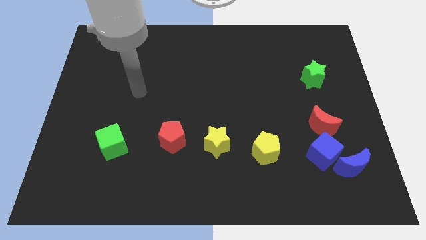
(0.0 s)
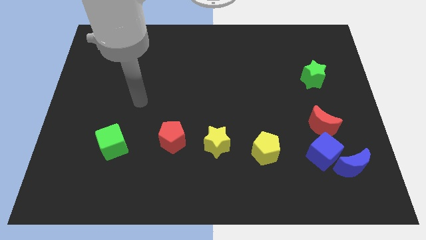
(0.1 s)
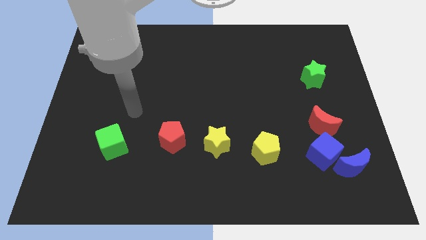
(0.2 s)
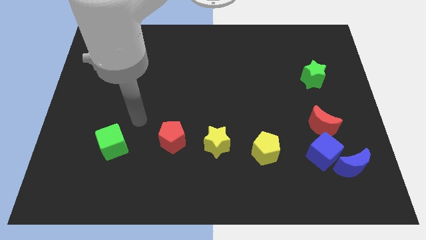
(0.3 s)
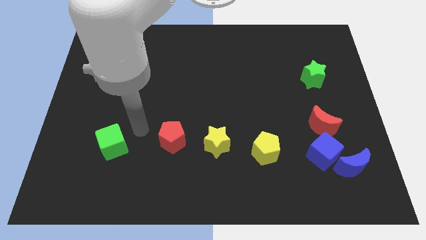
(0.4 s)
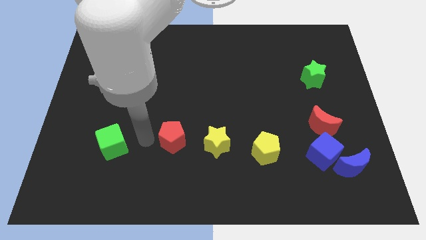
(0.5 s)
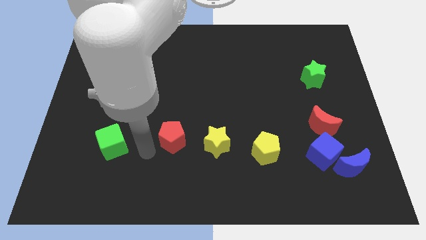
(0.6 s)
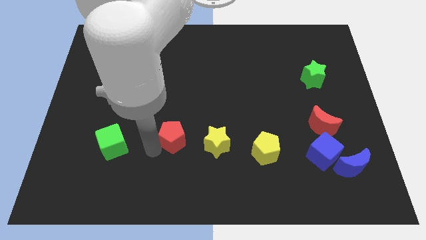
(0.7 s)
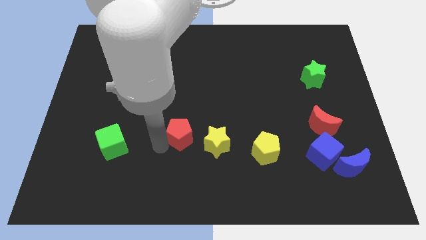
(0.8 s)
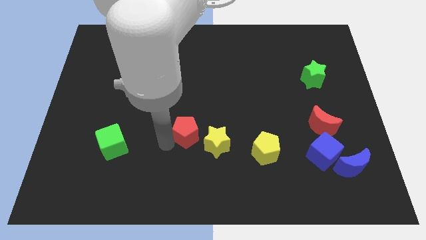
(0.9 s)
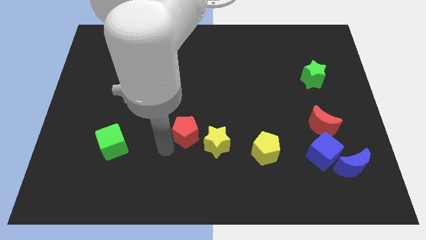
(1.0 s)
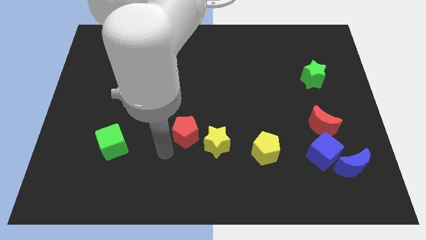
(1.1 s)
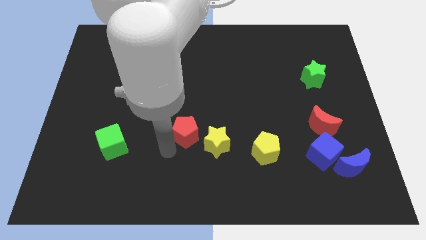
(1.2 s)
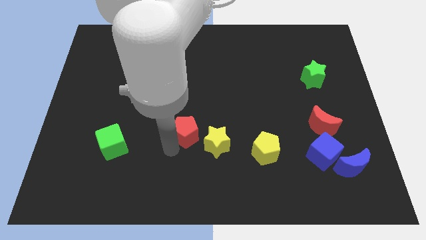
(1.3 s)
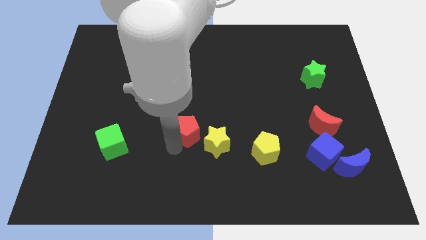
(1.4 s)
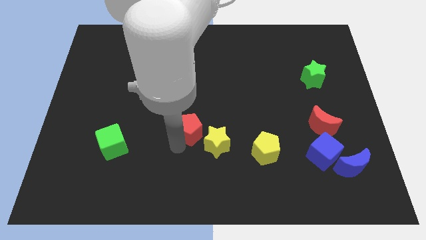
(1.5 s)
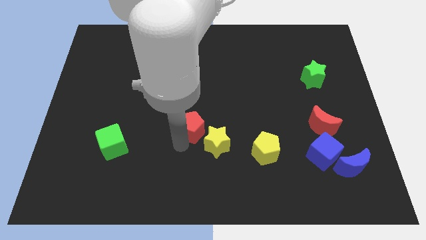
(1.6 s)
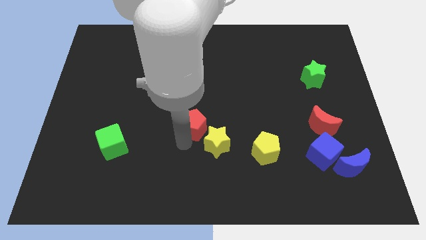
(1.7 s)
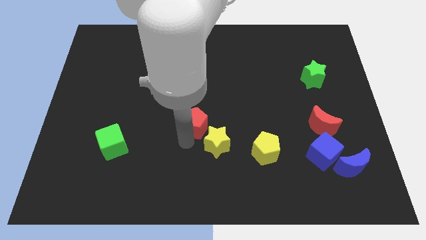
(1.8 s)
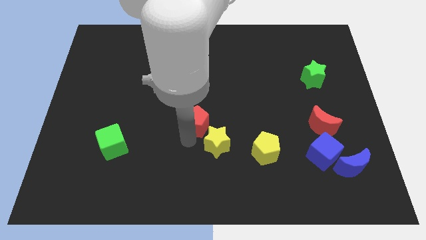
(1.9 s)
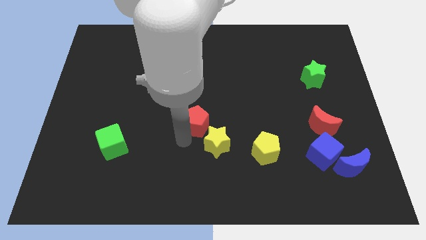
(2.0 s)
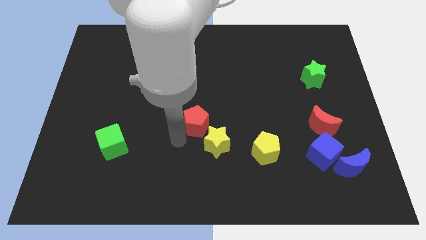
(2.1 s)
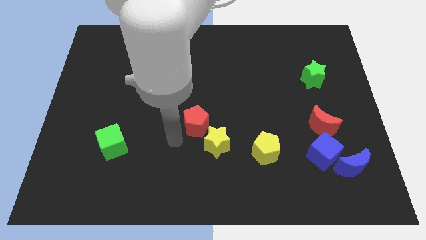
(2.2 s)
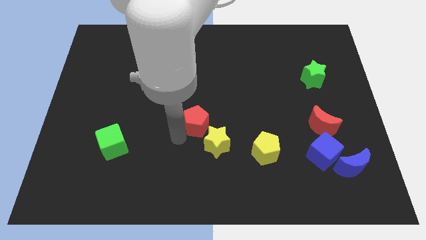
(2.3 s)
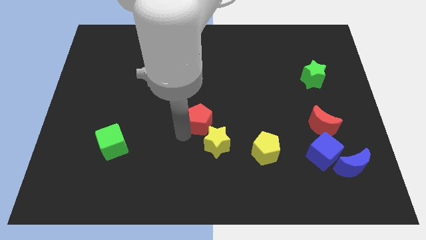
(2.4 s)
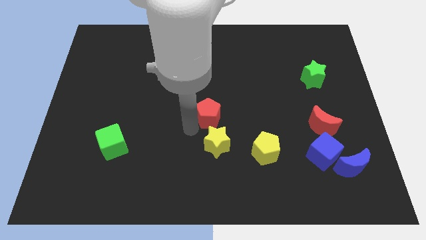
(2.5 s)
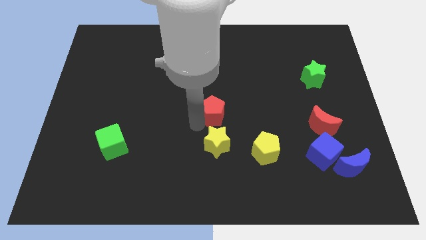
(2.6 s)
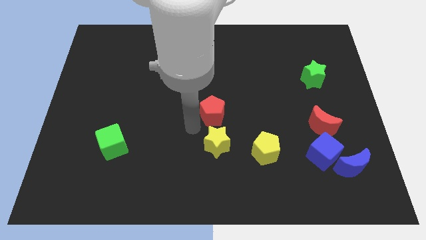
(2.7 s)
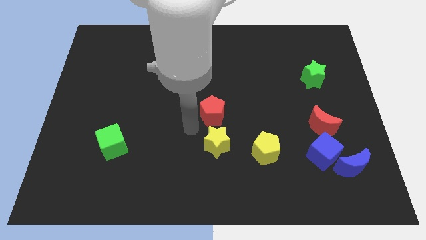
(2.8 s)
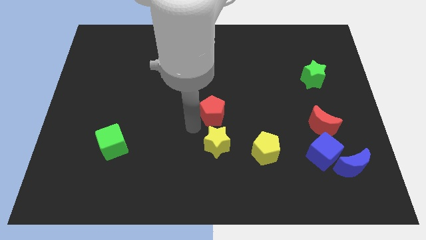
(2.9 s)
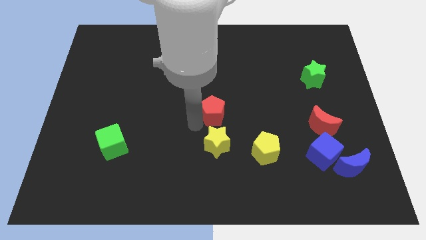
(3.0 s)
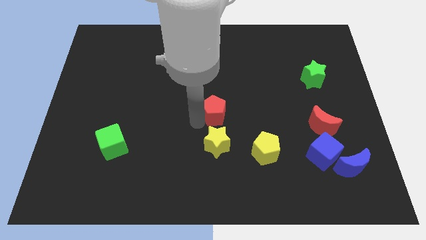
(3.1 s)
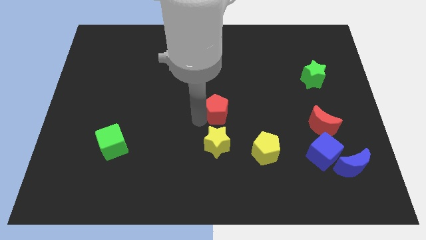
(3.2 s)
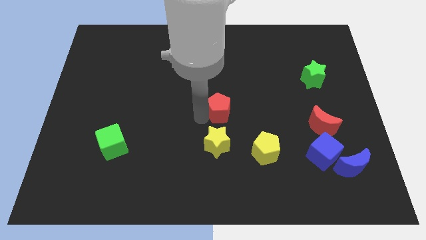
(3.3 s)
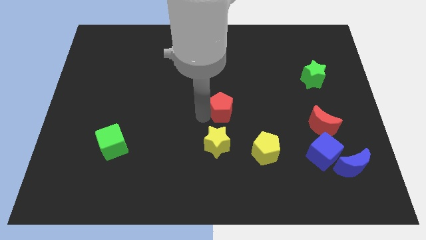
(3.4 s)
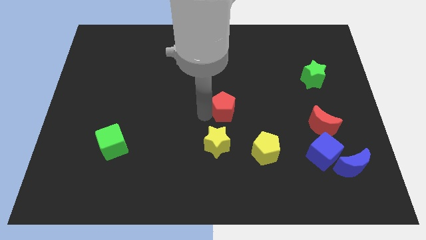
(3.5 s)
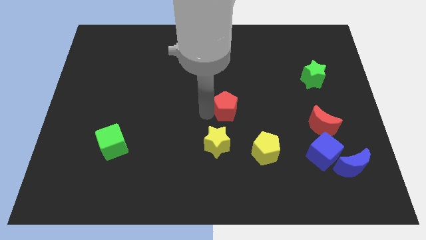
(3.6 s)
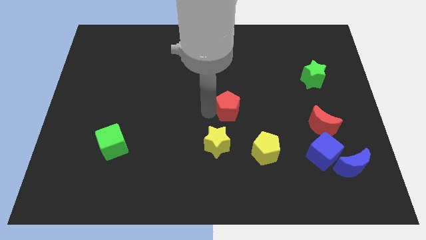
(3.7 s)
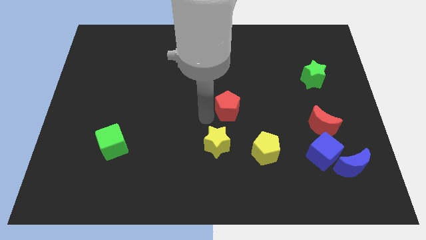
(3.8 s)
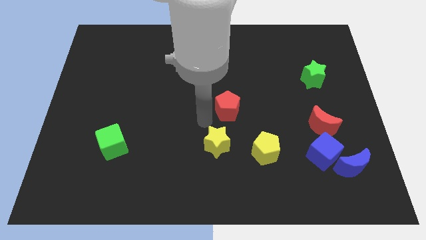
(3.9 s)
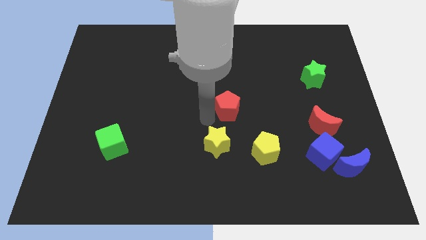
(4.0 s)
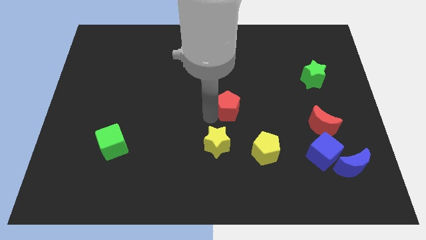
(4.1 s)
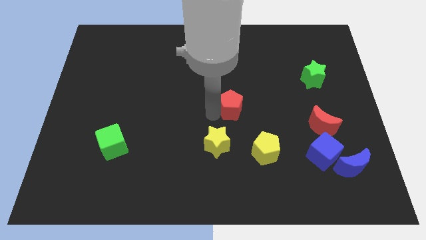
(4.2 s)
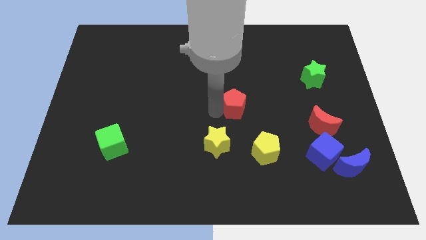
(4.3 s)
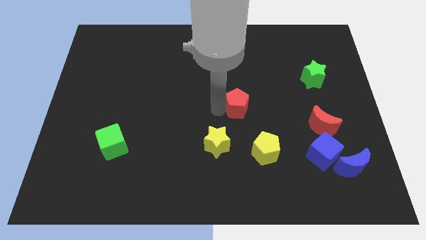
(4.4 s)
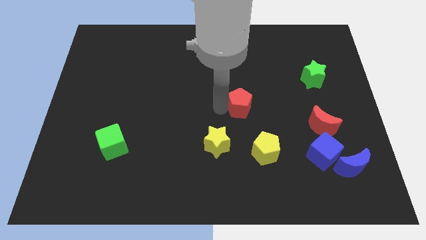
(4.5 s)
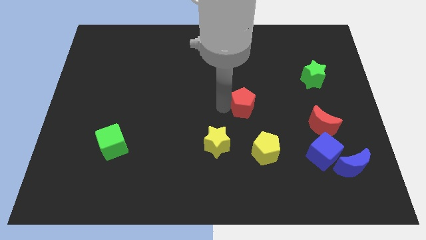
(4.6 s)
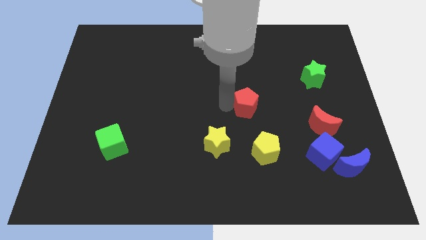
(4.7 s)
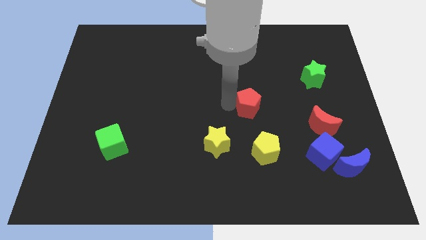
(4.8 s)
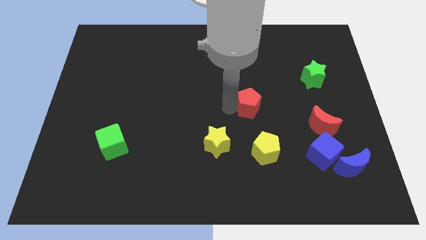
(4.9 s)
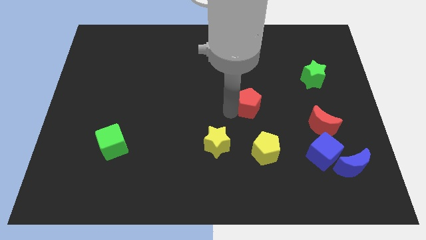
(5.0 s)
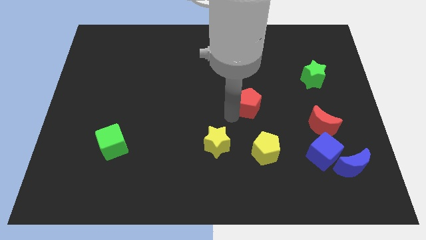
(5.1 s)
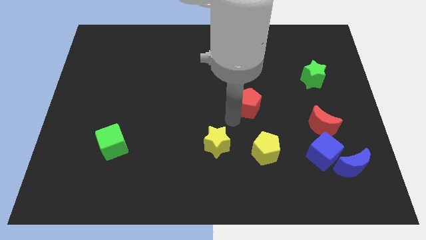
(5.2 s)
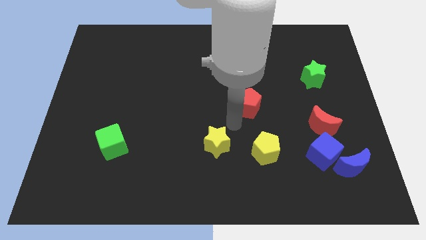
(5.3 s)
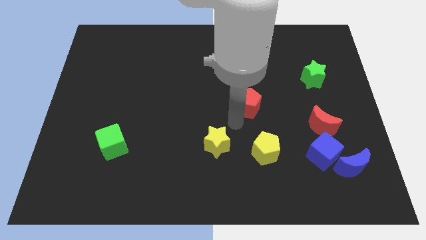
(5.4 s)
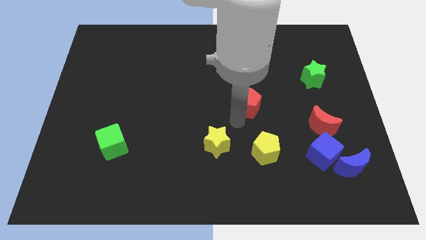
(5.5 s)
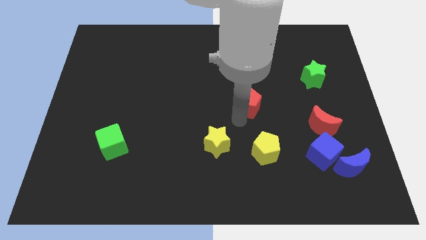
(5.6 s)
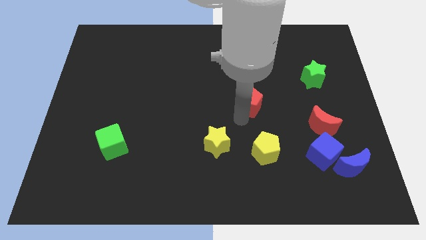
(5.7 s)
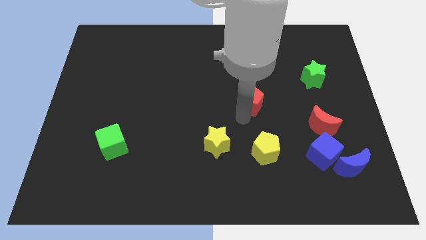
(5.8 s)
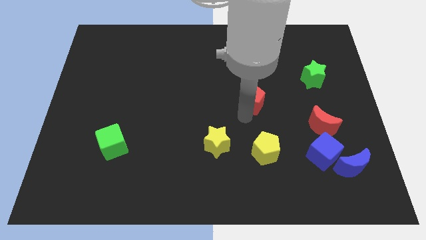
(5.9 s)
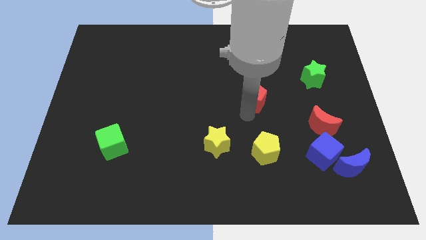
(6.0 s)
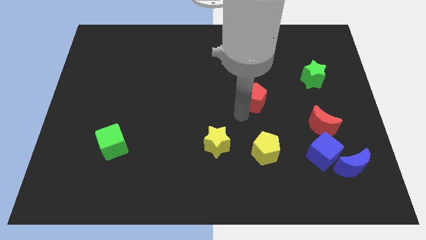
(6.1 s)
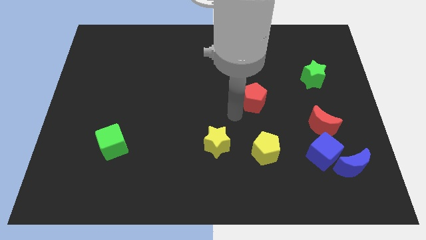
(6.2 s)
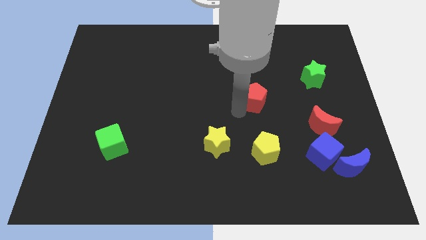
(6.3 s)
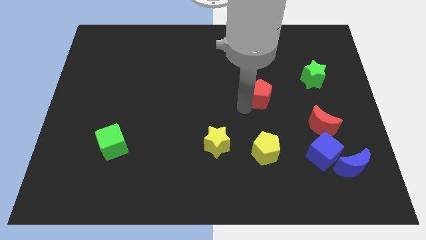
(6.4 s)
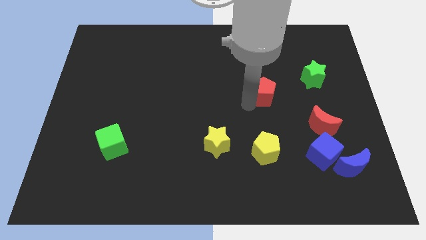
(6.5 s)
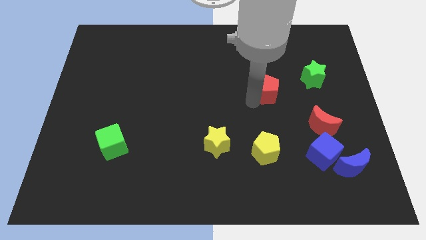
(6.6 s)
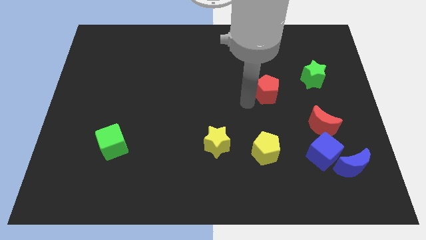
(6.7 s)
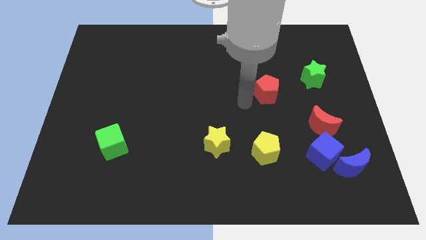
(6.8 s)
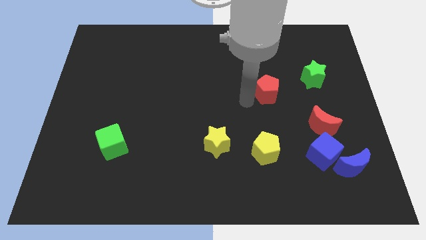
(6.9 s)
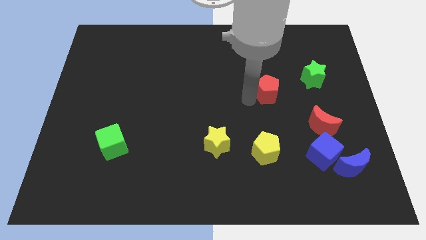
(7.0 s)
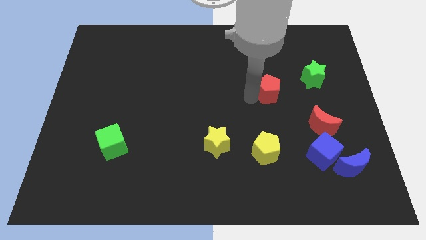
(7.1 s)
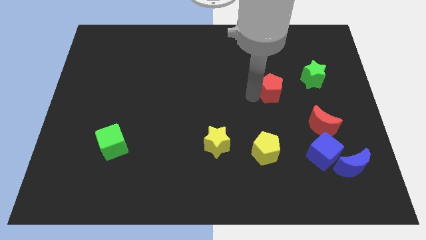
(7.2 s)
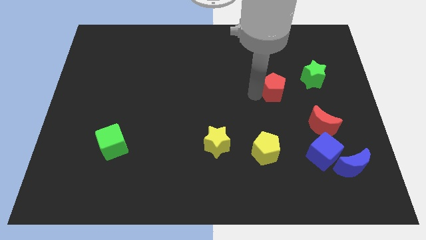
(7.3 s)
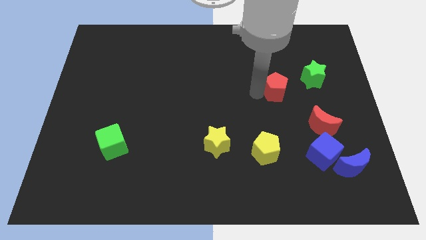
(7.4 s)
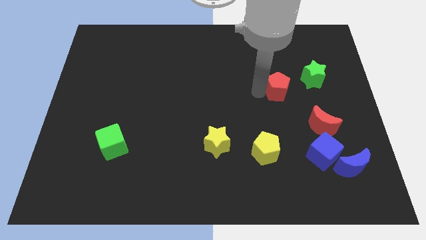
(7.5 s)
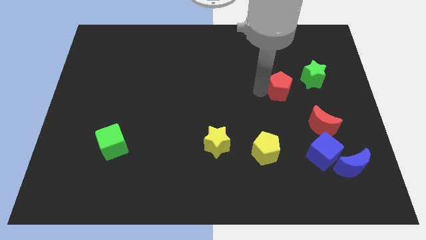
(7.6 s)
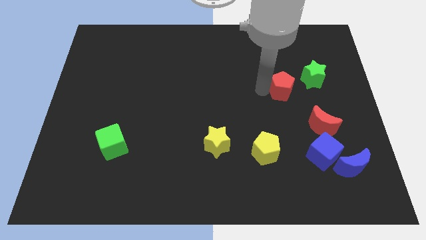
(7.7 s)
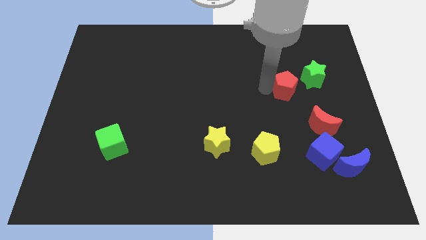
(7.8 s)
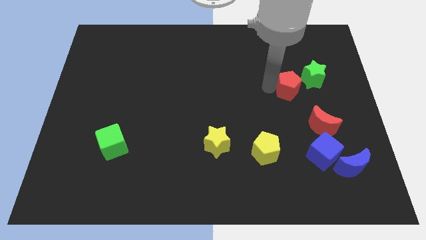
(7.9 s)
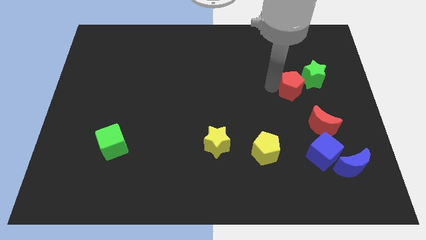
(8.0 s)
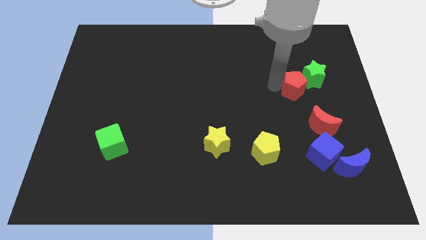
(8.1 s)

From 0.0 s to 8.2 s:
move the red pentagon next to the green star
